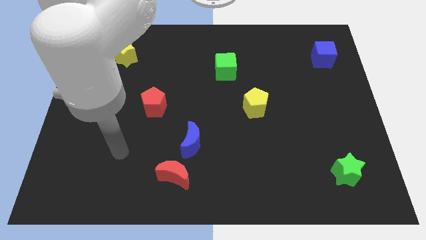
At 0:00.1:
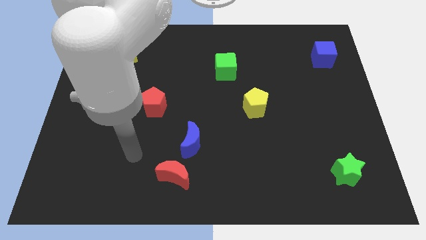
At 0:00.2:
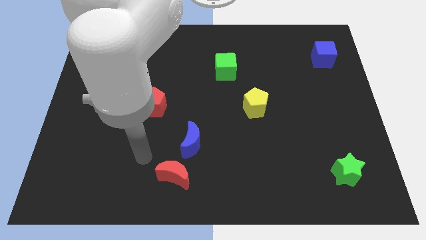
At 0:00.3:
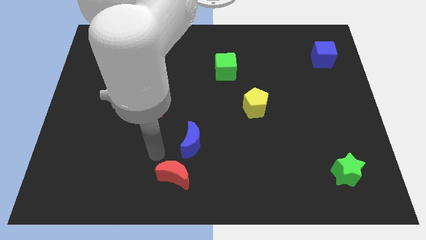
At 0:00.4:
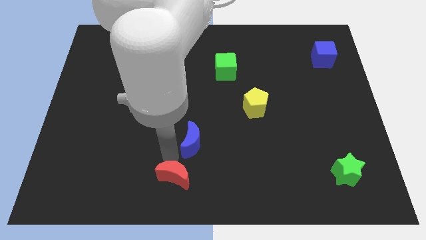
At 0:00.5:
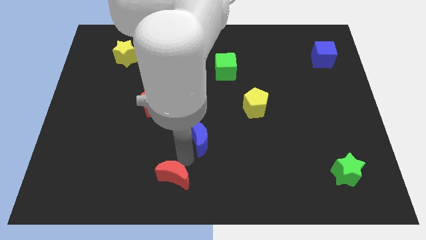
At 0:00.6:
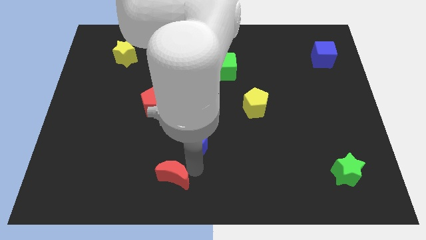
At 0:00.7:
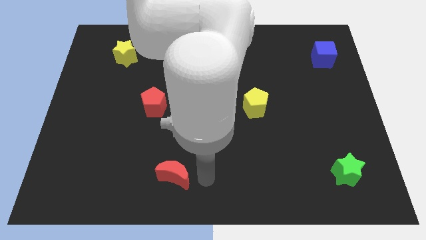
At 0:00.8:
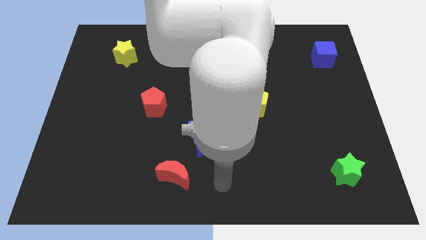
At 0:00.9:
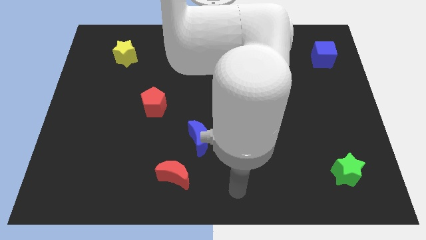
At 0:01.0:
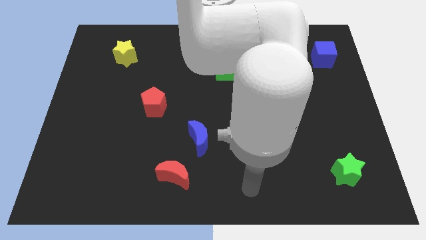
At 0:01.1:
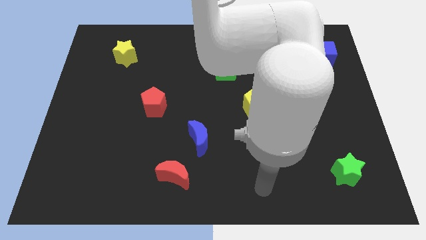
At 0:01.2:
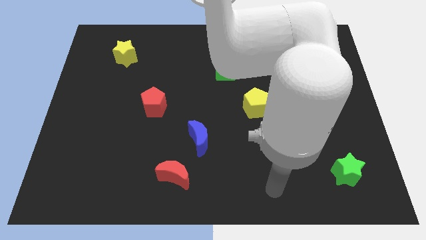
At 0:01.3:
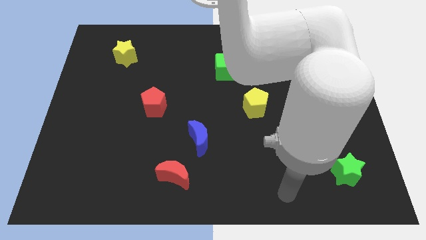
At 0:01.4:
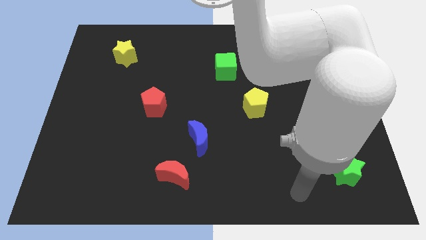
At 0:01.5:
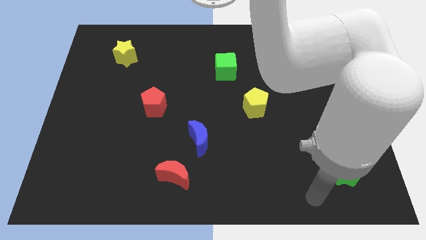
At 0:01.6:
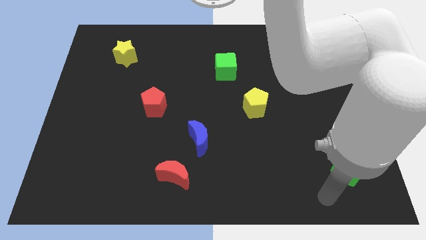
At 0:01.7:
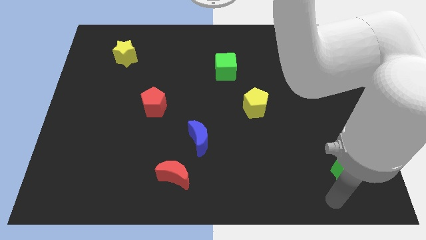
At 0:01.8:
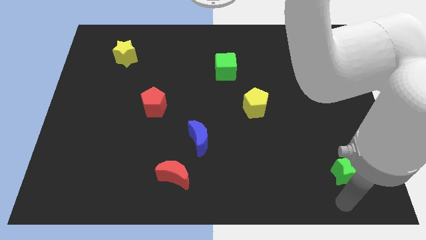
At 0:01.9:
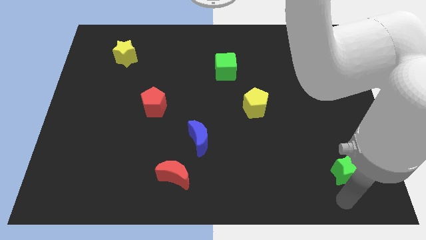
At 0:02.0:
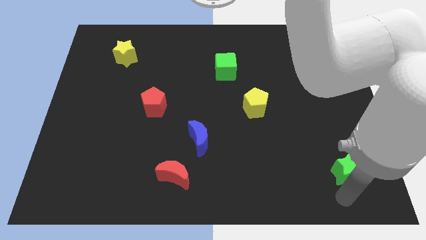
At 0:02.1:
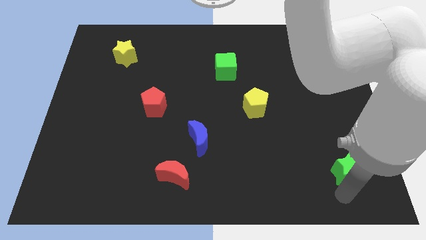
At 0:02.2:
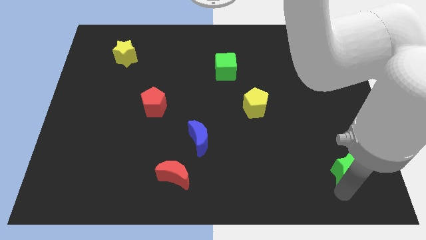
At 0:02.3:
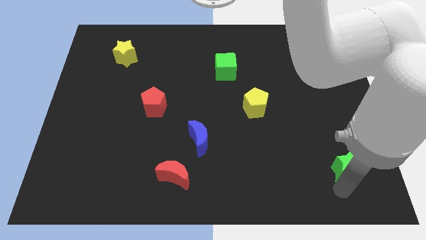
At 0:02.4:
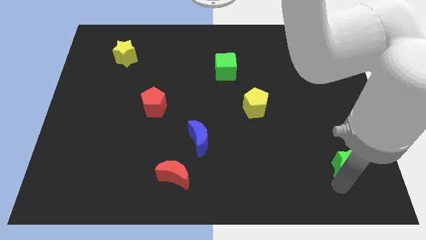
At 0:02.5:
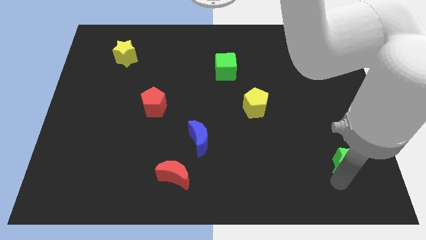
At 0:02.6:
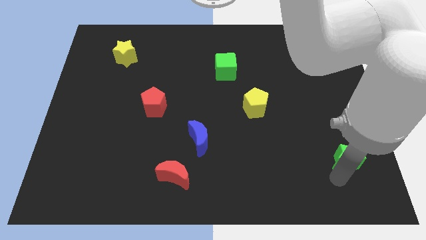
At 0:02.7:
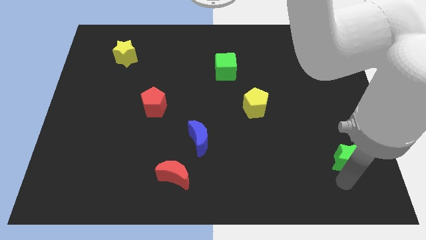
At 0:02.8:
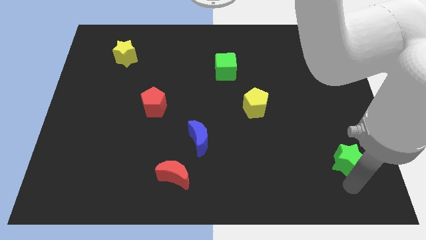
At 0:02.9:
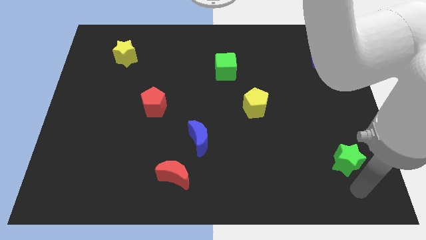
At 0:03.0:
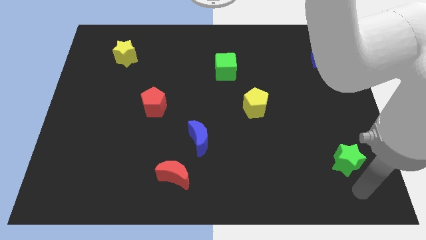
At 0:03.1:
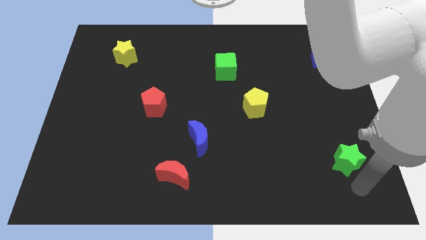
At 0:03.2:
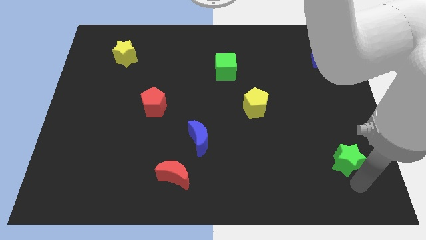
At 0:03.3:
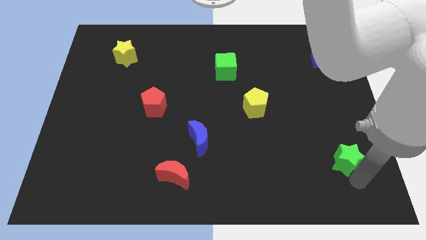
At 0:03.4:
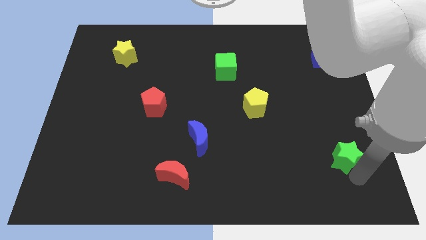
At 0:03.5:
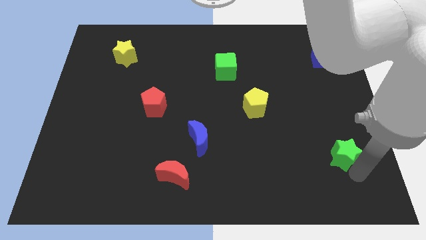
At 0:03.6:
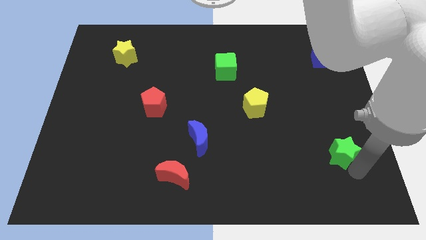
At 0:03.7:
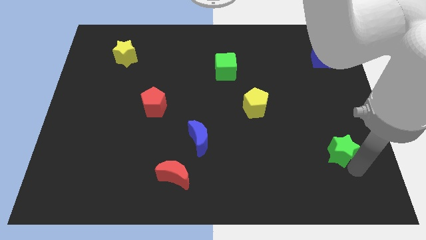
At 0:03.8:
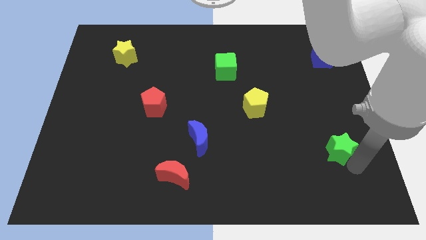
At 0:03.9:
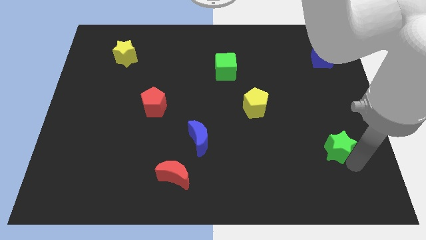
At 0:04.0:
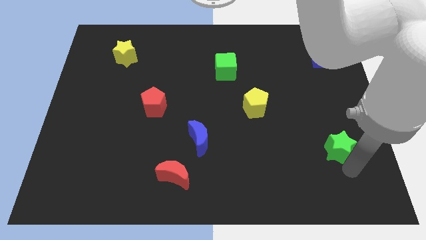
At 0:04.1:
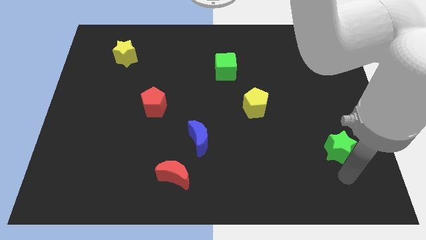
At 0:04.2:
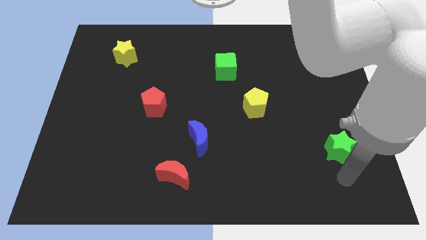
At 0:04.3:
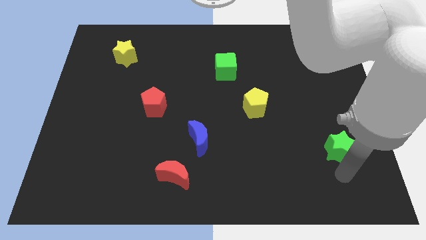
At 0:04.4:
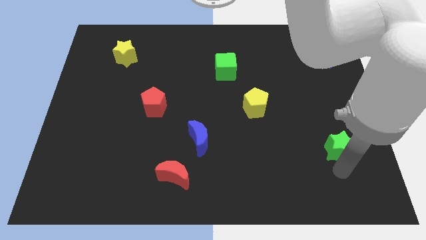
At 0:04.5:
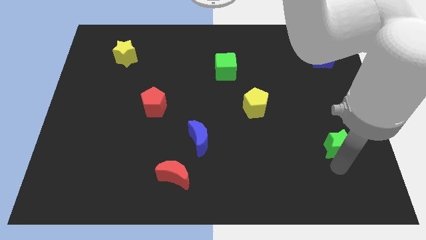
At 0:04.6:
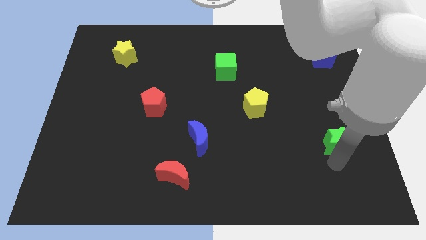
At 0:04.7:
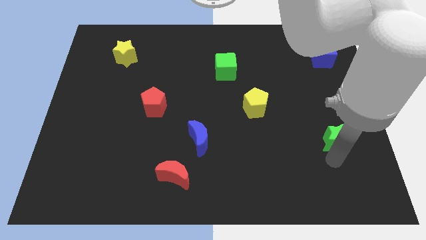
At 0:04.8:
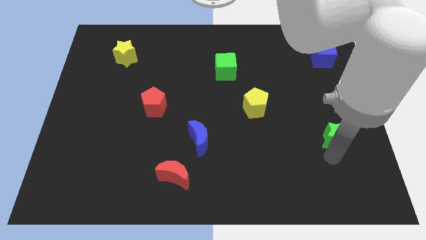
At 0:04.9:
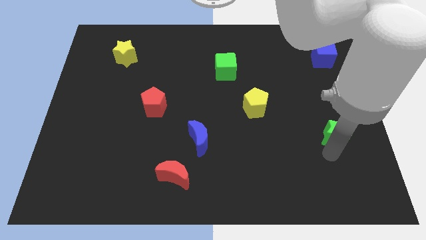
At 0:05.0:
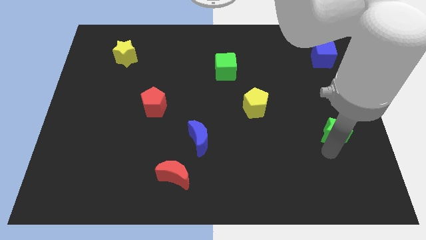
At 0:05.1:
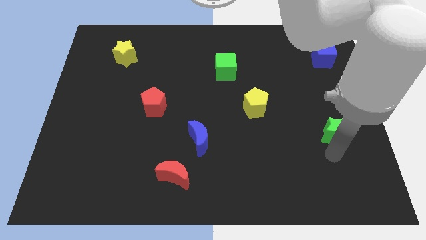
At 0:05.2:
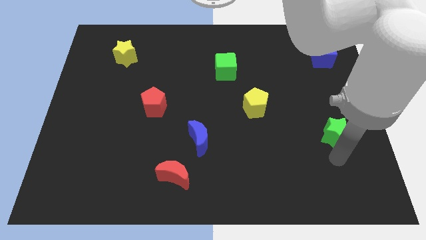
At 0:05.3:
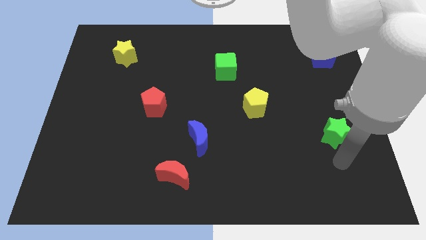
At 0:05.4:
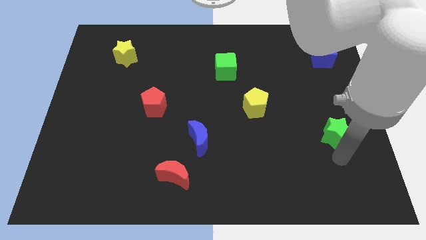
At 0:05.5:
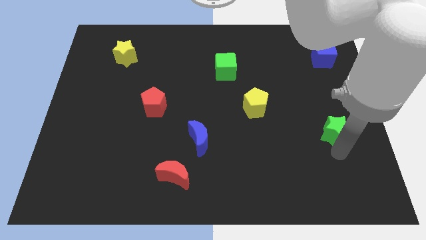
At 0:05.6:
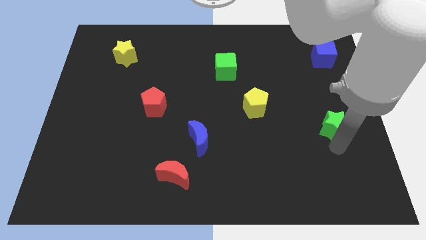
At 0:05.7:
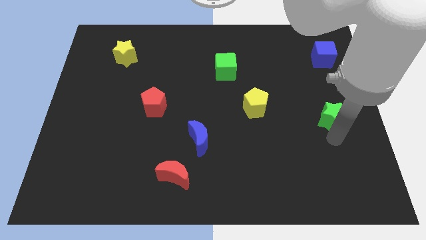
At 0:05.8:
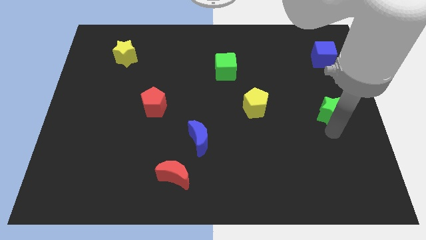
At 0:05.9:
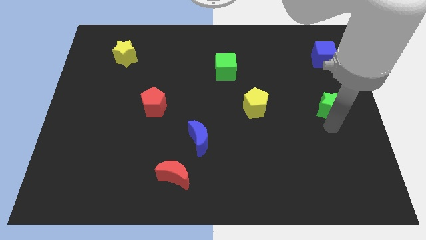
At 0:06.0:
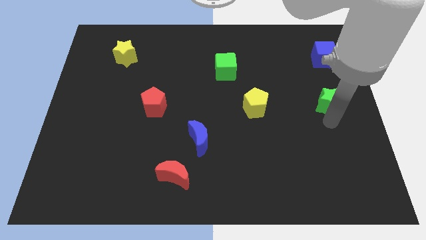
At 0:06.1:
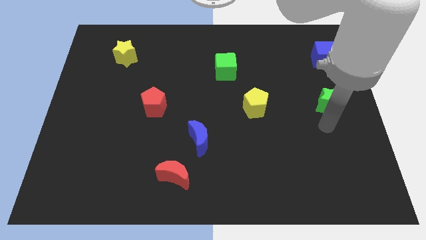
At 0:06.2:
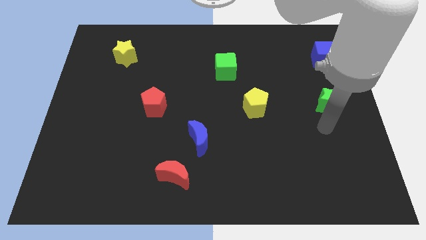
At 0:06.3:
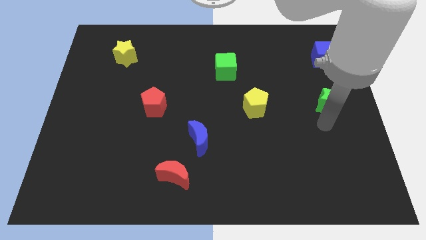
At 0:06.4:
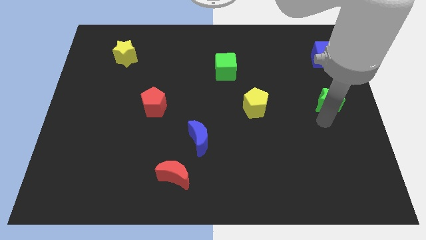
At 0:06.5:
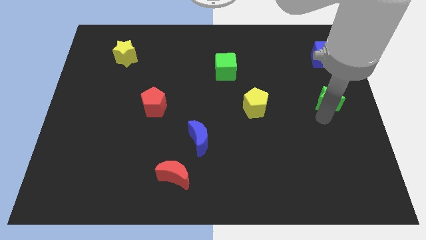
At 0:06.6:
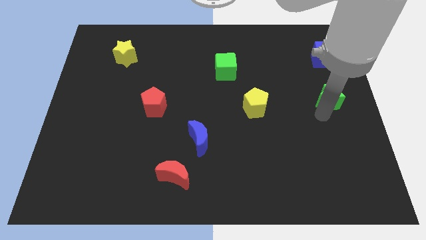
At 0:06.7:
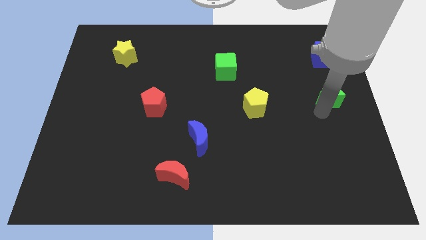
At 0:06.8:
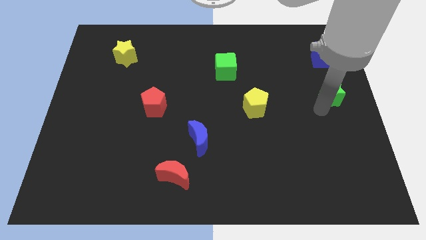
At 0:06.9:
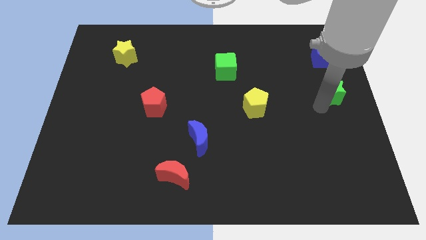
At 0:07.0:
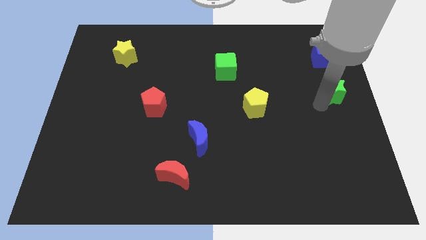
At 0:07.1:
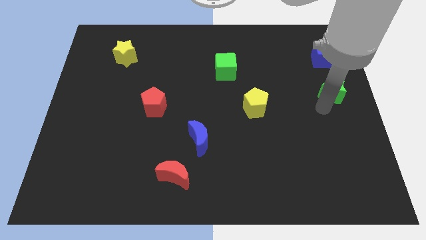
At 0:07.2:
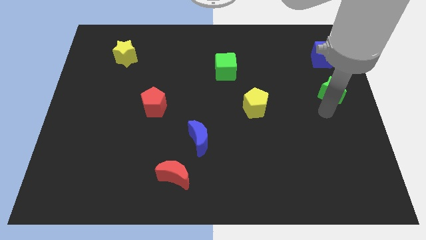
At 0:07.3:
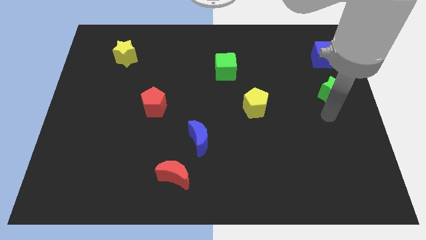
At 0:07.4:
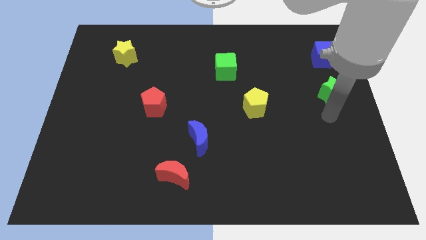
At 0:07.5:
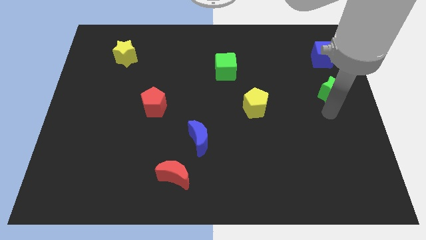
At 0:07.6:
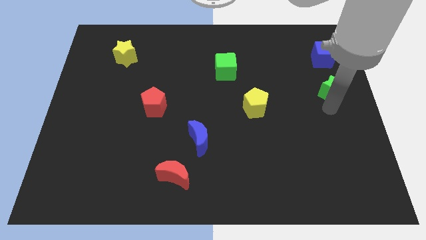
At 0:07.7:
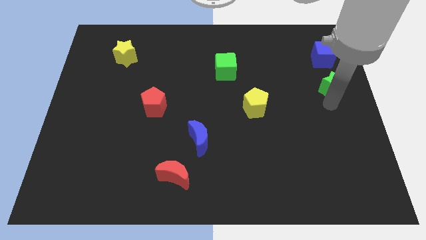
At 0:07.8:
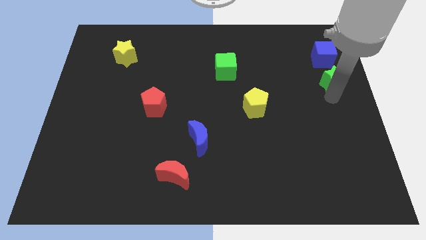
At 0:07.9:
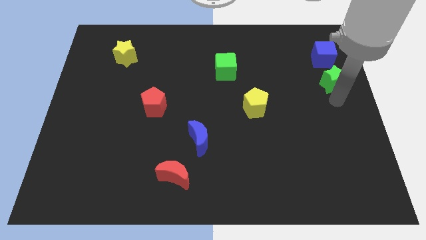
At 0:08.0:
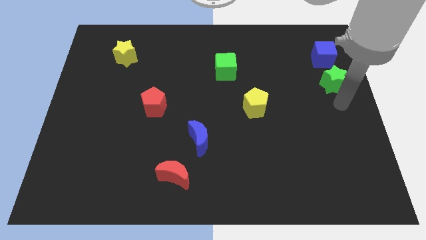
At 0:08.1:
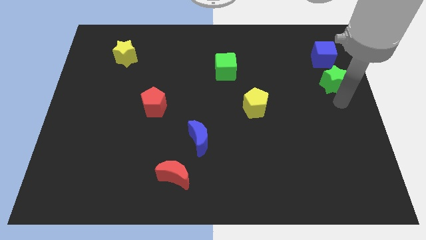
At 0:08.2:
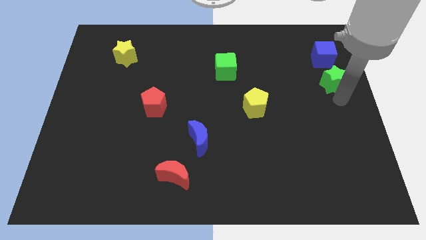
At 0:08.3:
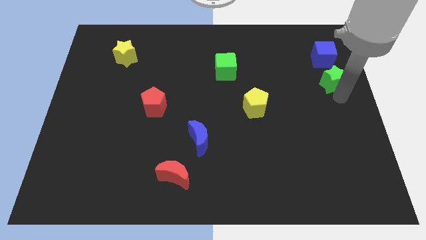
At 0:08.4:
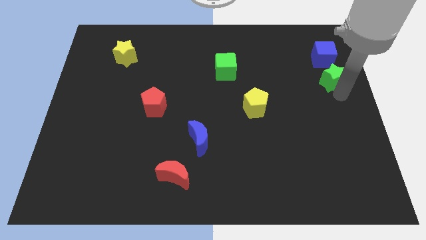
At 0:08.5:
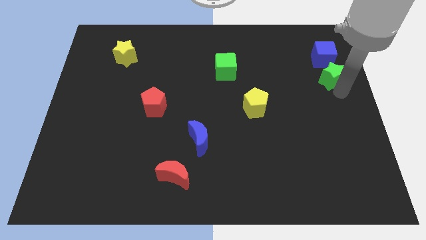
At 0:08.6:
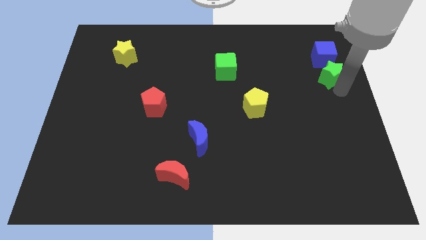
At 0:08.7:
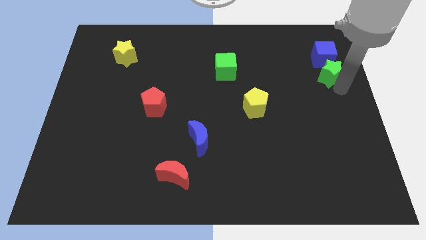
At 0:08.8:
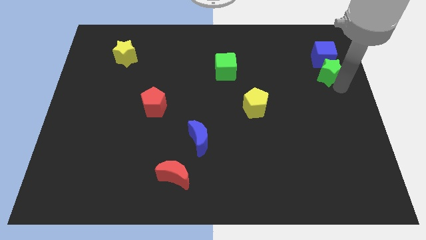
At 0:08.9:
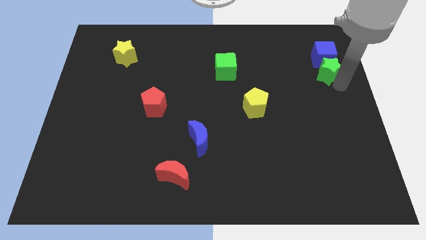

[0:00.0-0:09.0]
move the green star towards the blue cube
